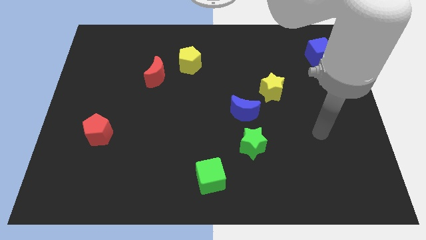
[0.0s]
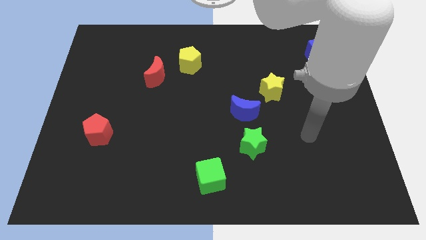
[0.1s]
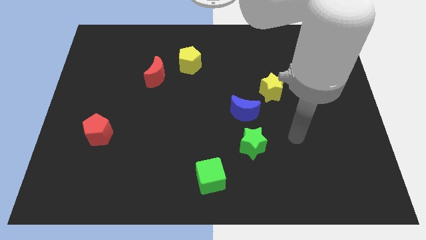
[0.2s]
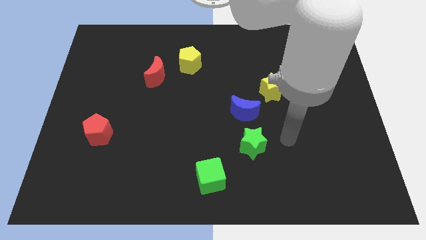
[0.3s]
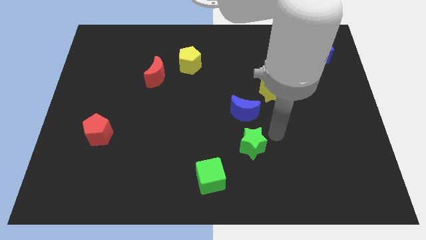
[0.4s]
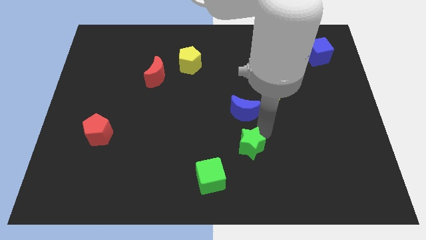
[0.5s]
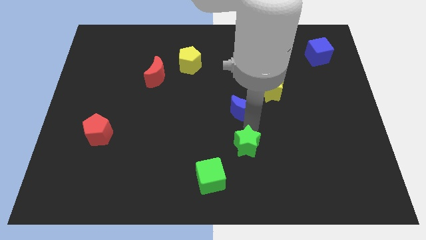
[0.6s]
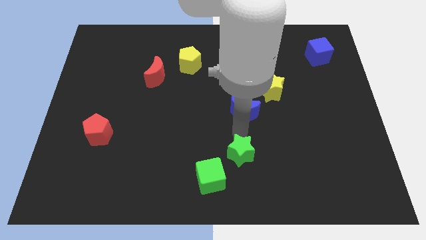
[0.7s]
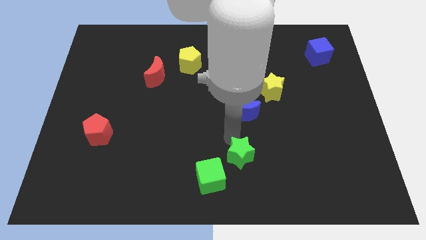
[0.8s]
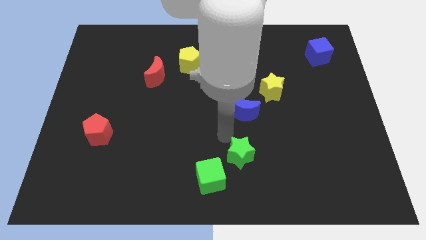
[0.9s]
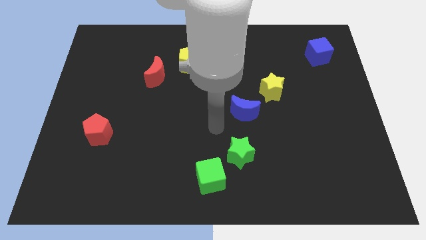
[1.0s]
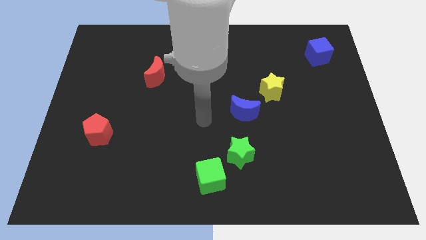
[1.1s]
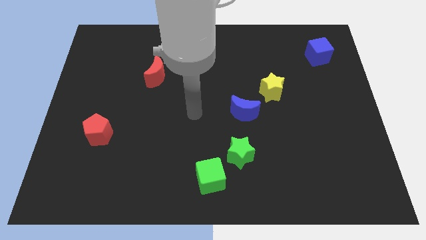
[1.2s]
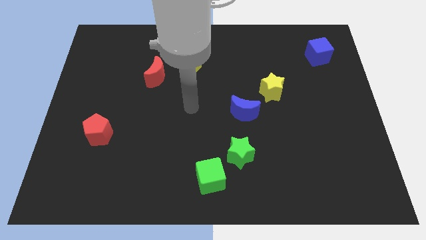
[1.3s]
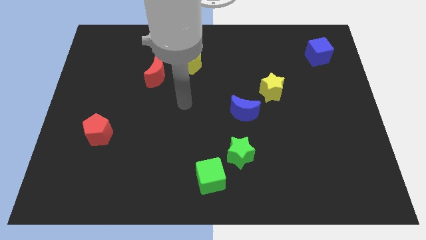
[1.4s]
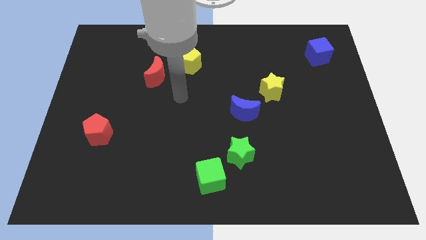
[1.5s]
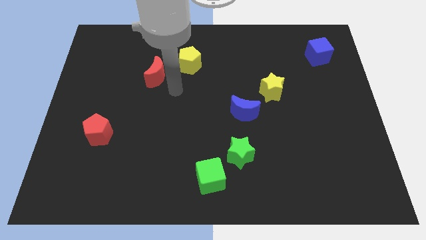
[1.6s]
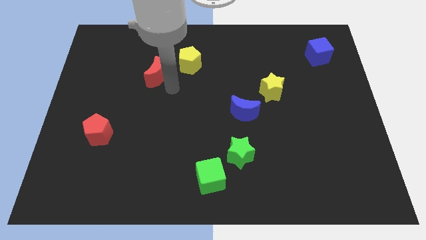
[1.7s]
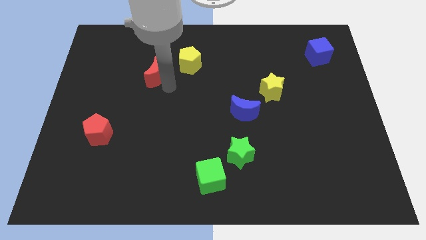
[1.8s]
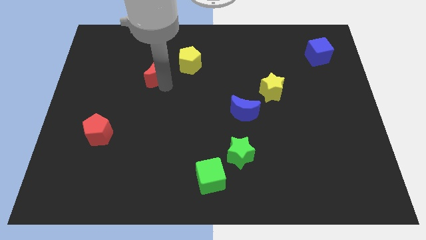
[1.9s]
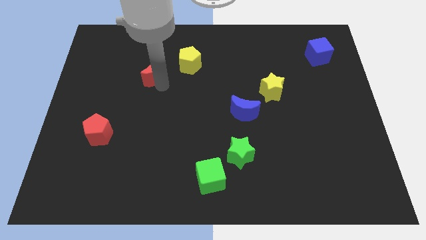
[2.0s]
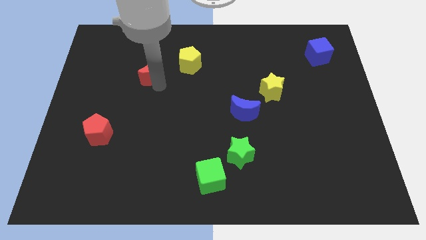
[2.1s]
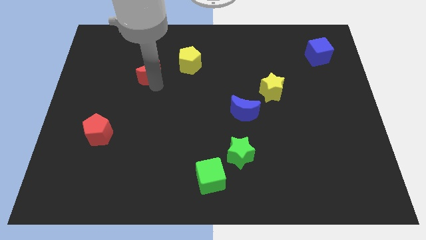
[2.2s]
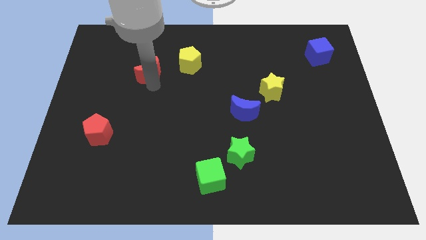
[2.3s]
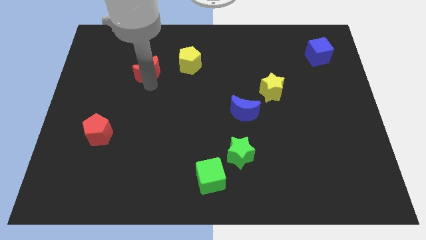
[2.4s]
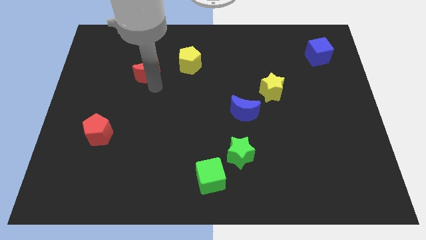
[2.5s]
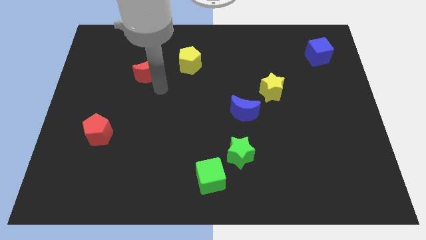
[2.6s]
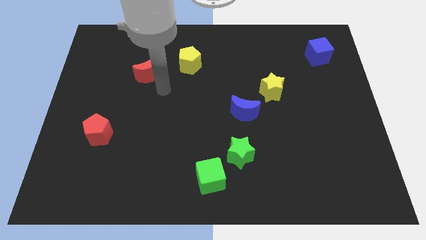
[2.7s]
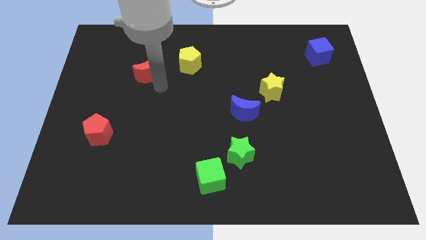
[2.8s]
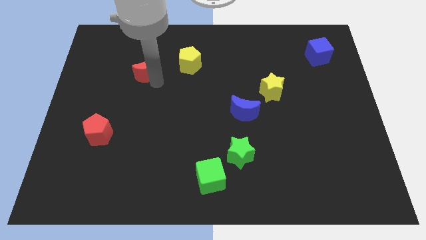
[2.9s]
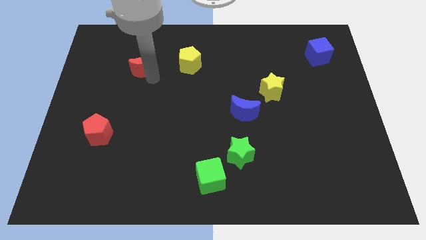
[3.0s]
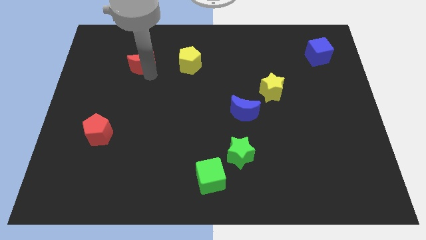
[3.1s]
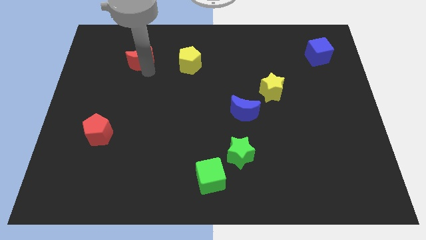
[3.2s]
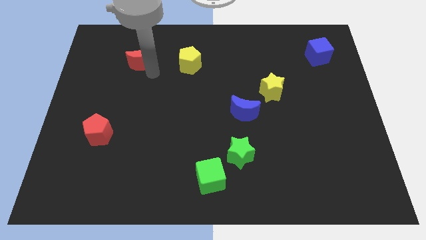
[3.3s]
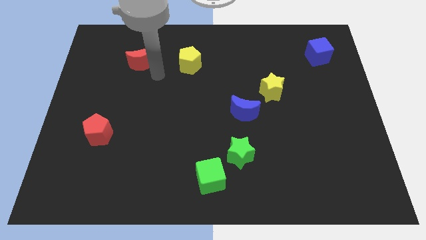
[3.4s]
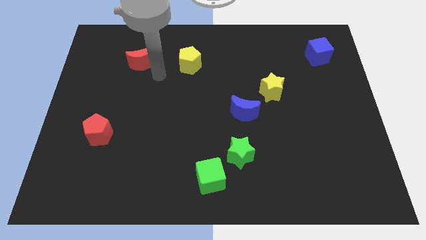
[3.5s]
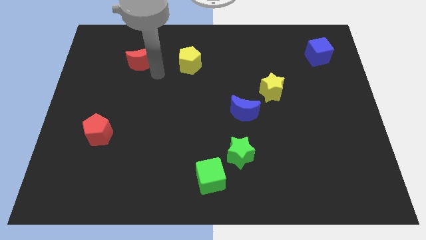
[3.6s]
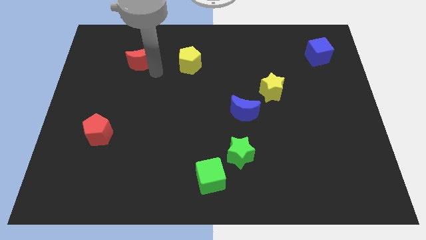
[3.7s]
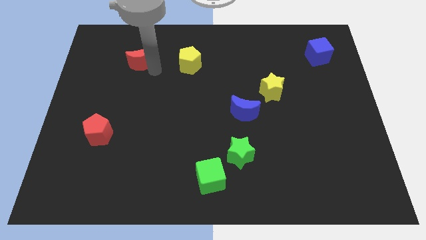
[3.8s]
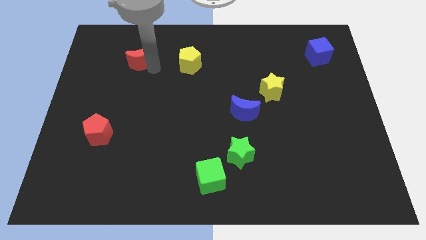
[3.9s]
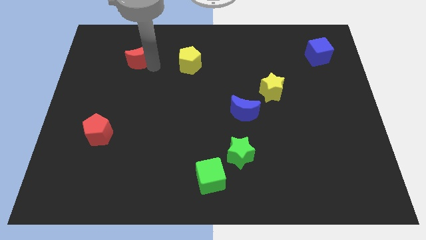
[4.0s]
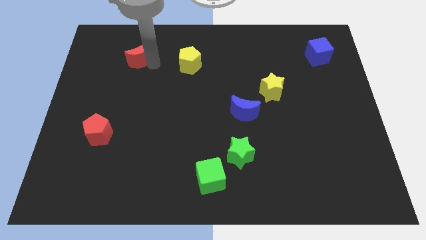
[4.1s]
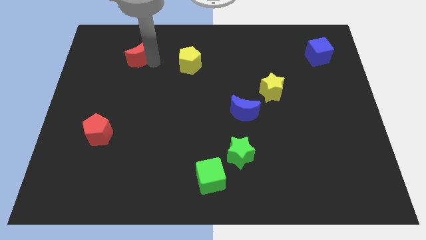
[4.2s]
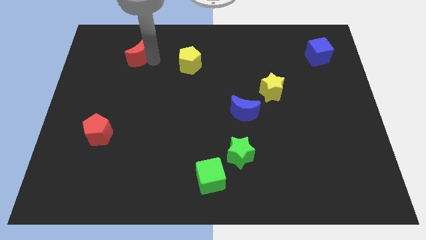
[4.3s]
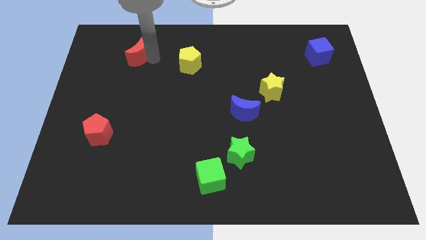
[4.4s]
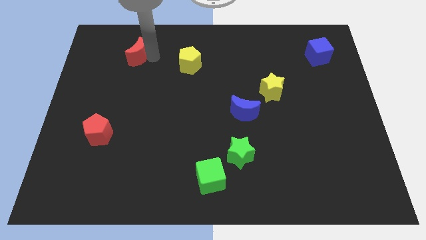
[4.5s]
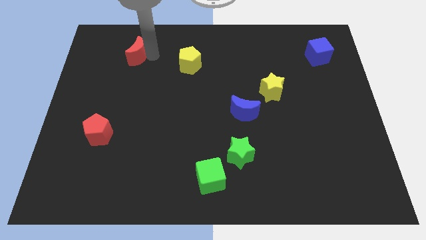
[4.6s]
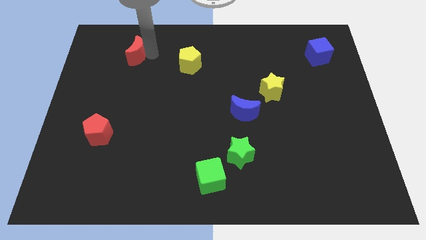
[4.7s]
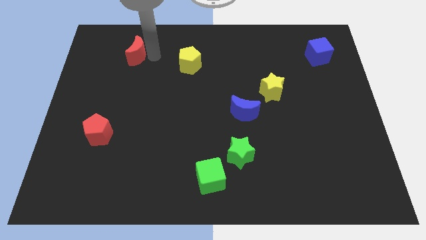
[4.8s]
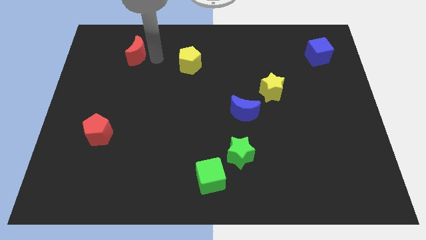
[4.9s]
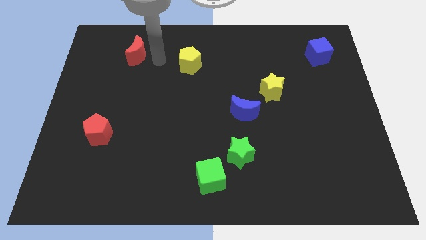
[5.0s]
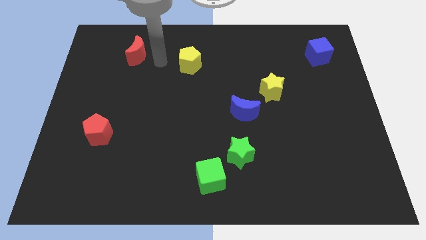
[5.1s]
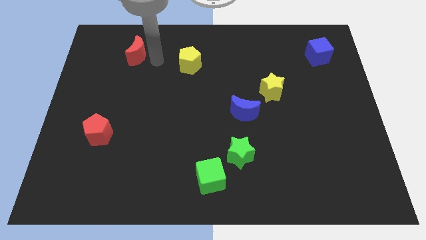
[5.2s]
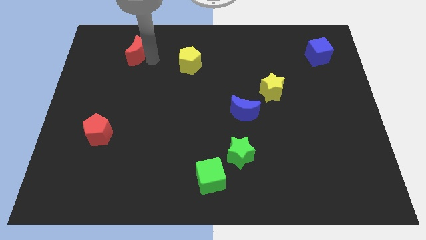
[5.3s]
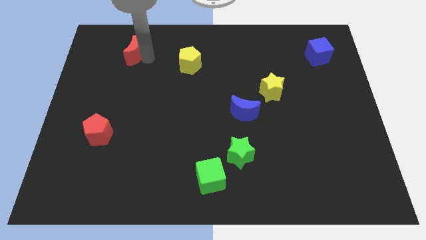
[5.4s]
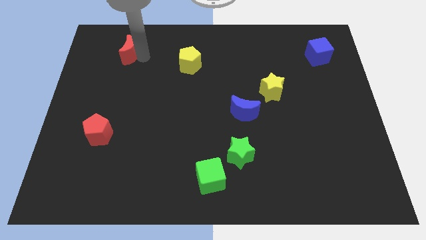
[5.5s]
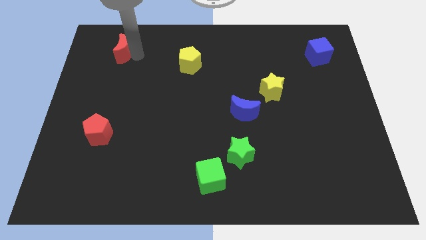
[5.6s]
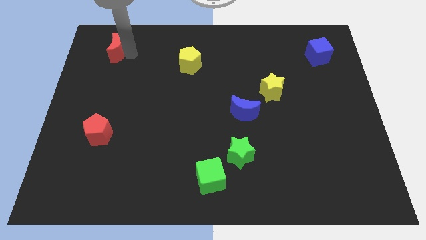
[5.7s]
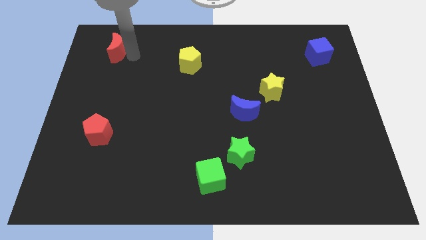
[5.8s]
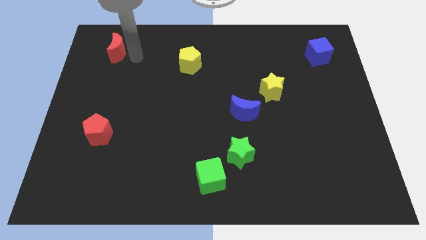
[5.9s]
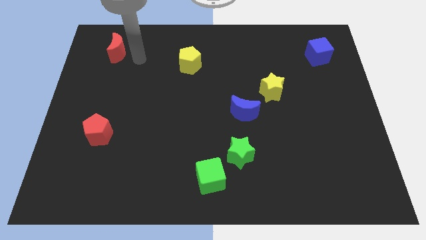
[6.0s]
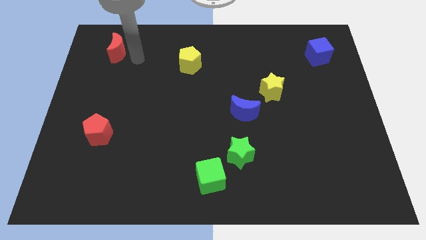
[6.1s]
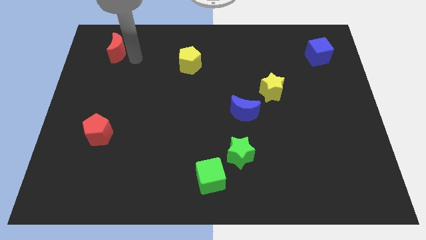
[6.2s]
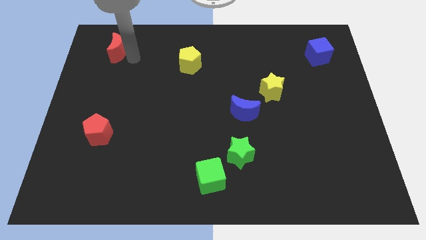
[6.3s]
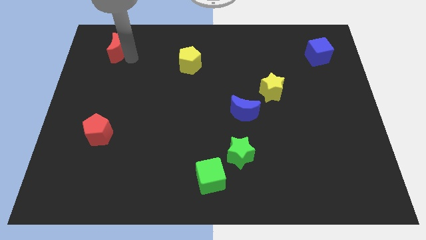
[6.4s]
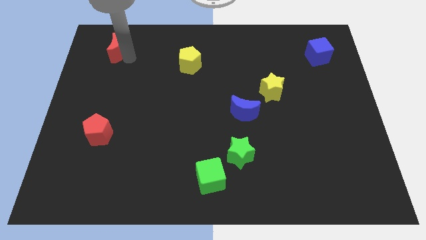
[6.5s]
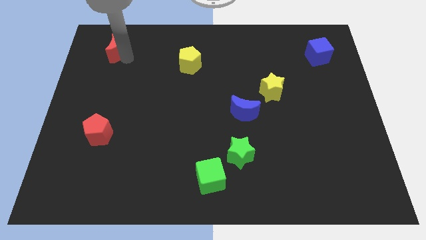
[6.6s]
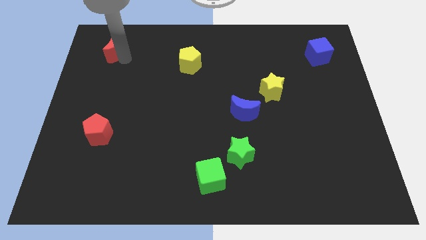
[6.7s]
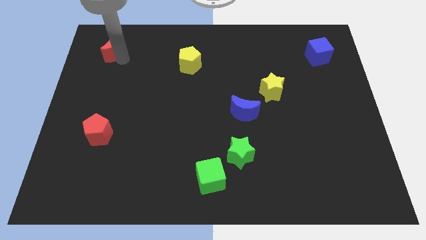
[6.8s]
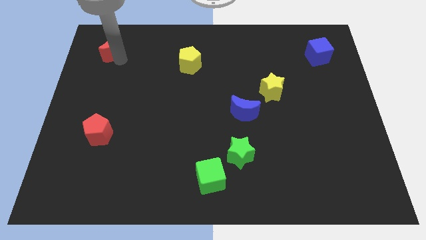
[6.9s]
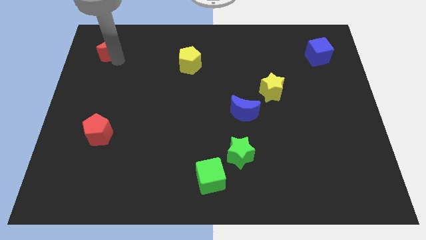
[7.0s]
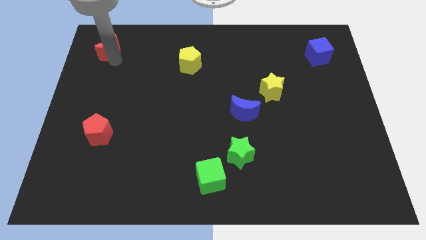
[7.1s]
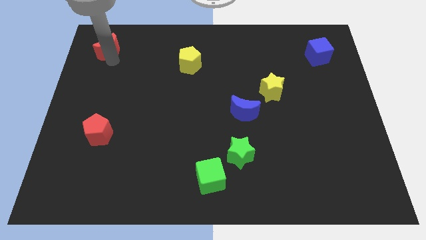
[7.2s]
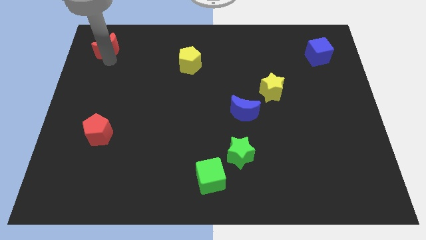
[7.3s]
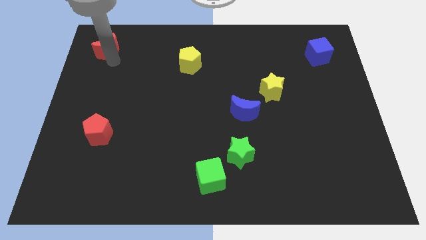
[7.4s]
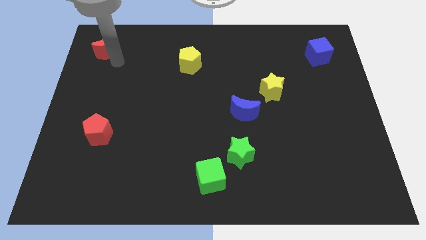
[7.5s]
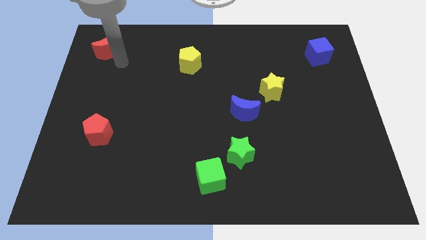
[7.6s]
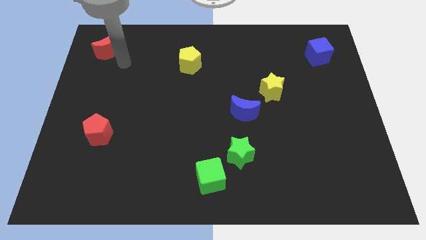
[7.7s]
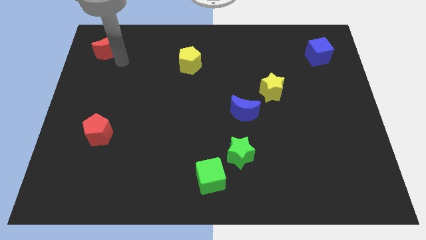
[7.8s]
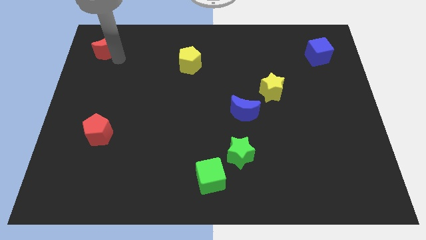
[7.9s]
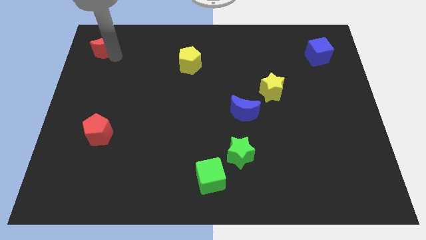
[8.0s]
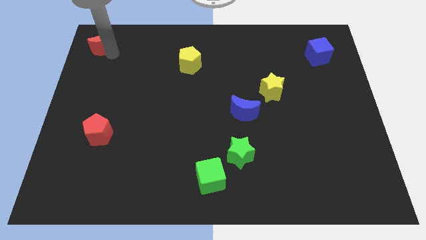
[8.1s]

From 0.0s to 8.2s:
slide the red moon to the upper left corner
